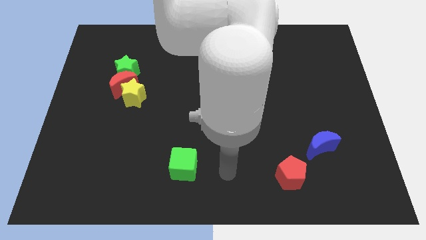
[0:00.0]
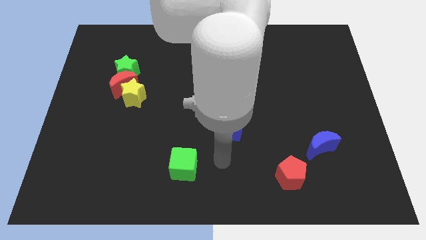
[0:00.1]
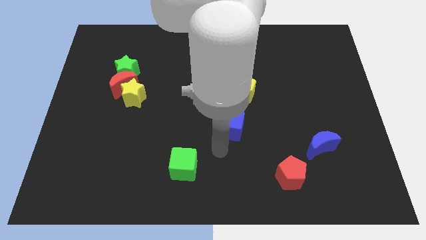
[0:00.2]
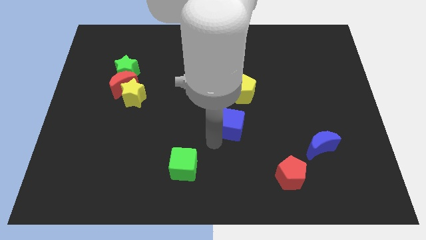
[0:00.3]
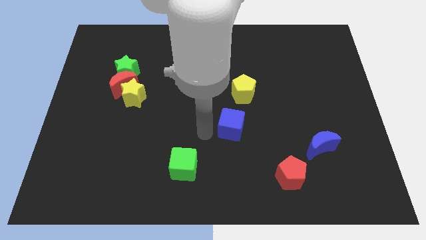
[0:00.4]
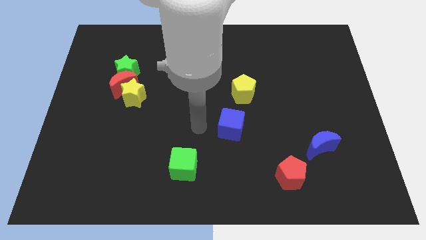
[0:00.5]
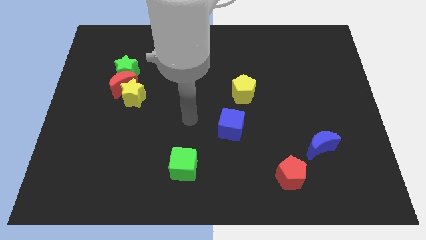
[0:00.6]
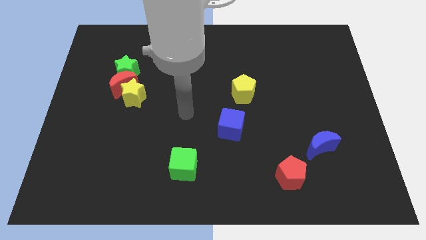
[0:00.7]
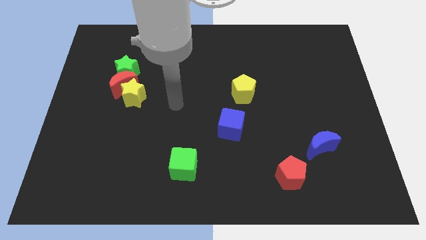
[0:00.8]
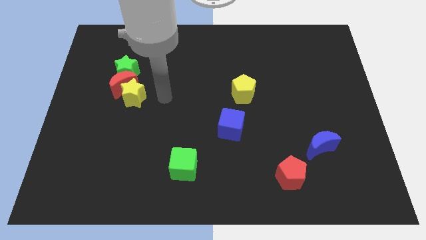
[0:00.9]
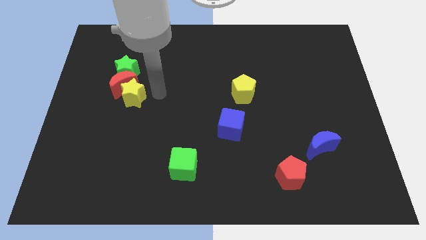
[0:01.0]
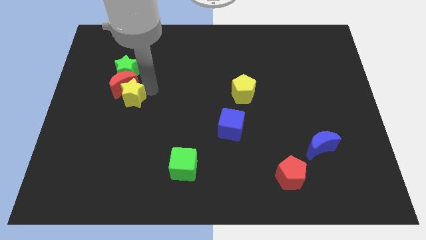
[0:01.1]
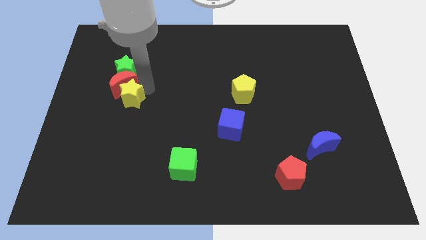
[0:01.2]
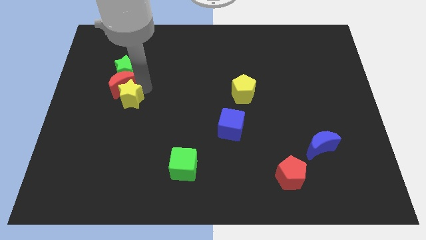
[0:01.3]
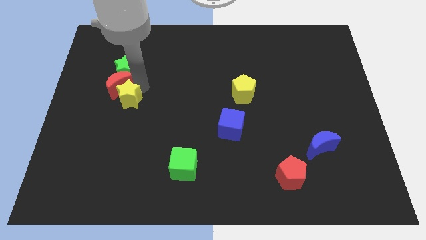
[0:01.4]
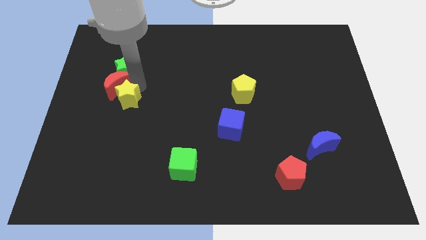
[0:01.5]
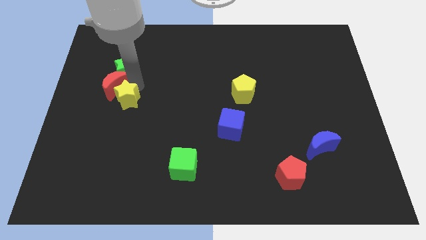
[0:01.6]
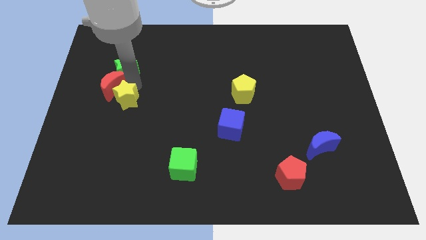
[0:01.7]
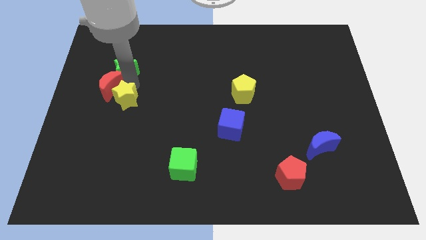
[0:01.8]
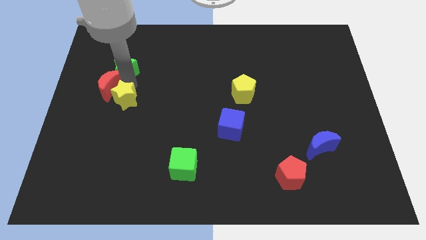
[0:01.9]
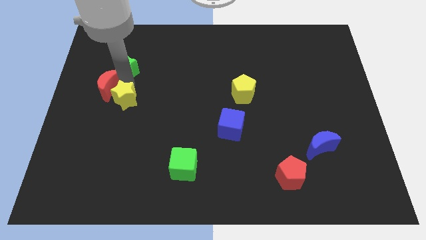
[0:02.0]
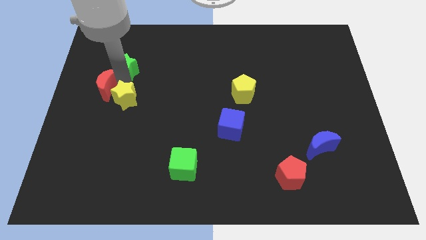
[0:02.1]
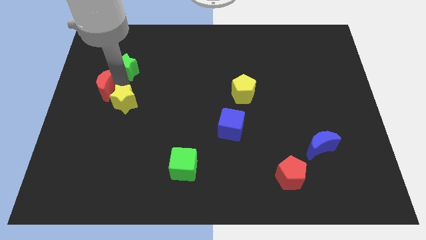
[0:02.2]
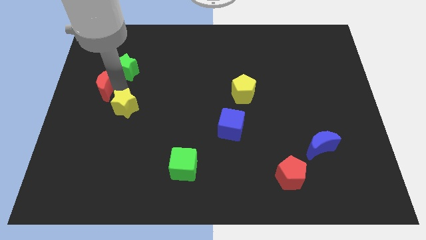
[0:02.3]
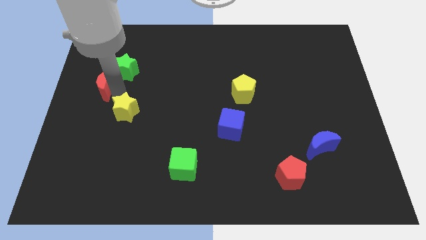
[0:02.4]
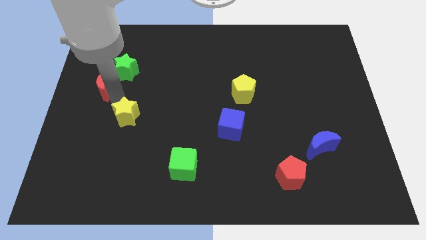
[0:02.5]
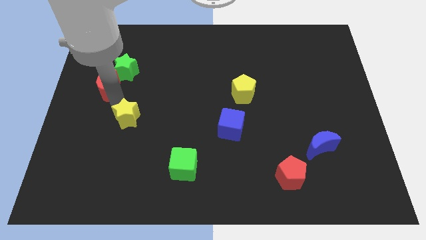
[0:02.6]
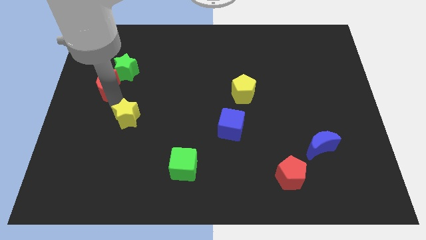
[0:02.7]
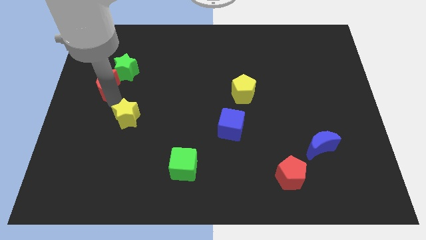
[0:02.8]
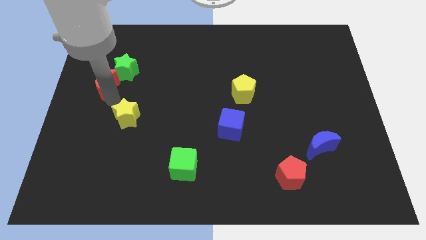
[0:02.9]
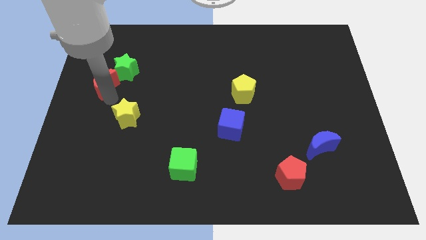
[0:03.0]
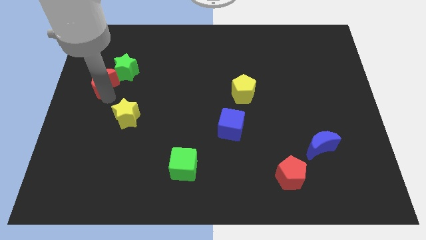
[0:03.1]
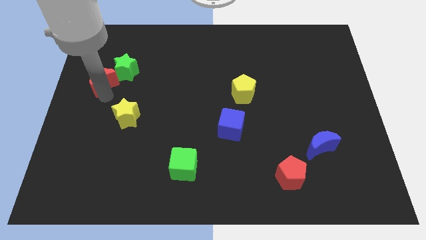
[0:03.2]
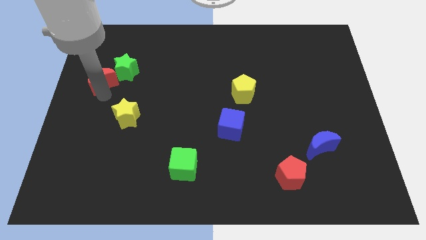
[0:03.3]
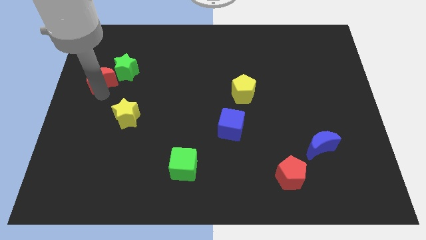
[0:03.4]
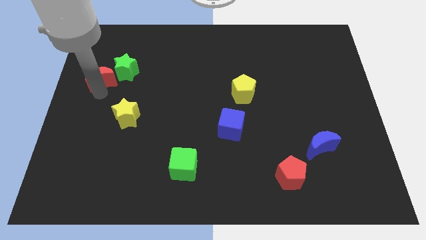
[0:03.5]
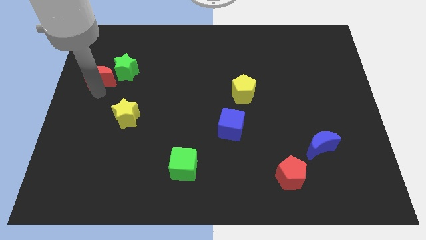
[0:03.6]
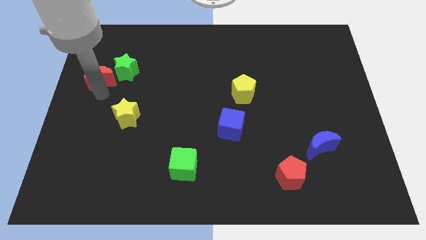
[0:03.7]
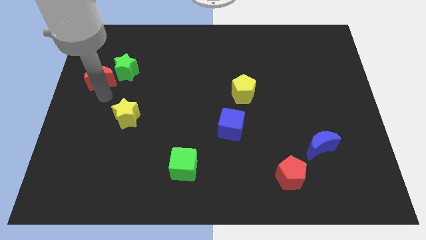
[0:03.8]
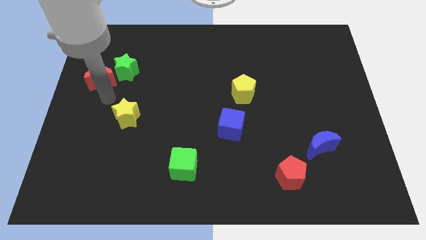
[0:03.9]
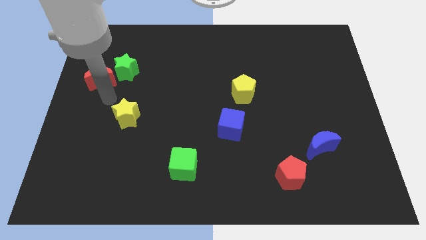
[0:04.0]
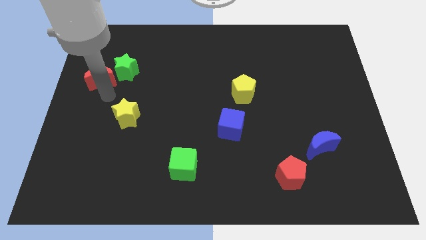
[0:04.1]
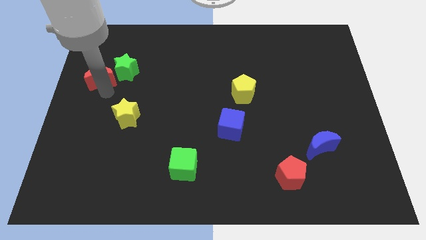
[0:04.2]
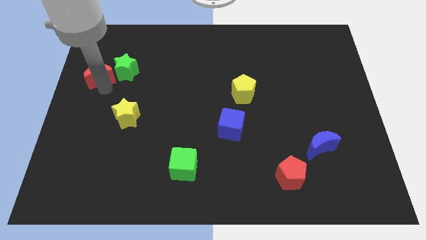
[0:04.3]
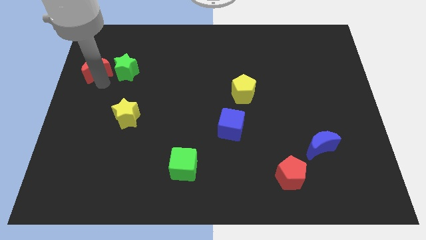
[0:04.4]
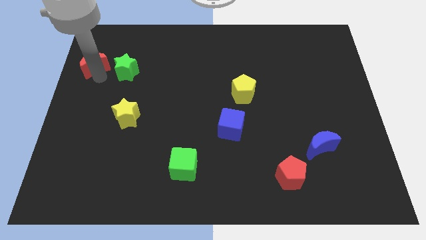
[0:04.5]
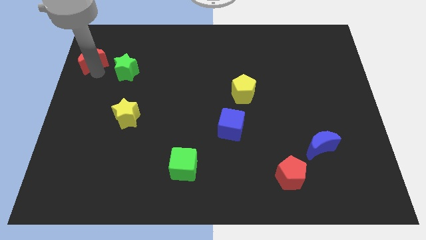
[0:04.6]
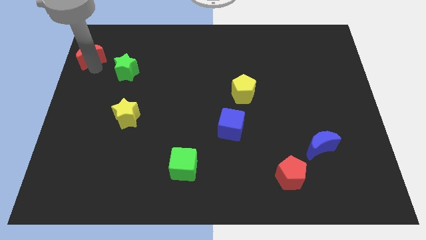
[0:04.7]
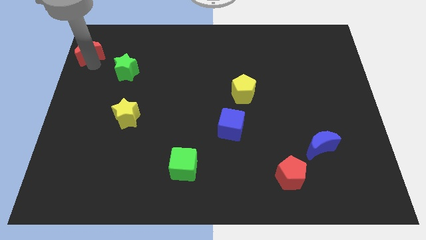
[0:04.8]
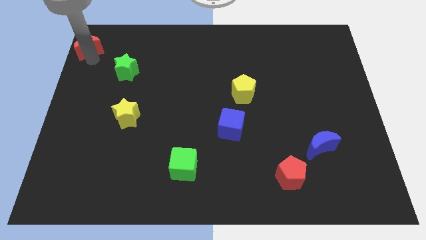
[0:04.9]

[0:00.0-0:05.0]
push the red moon to the top left corner

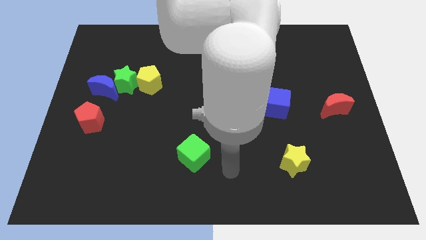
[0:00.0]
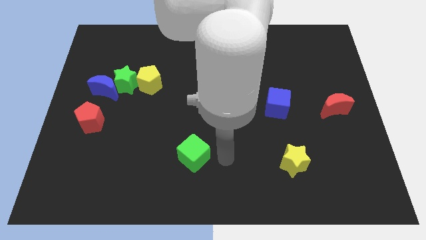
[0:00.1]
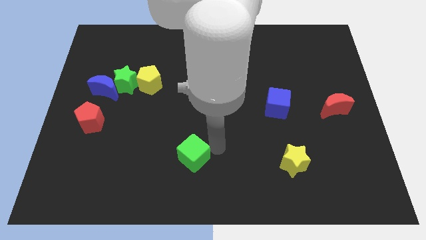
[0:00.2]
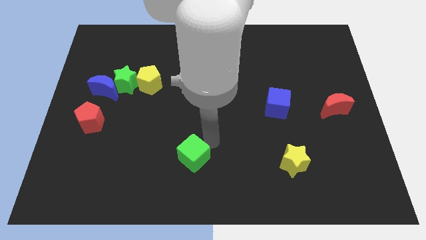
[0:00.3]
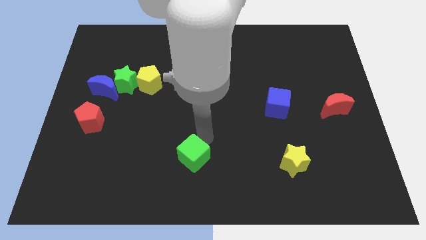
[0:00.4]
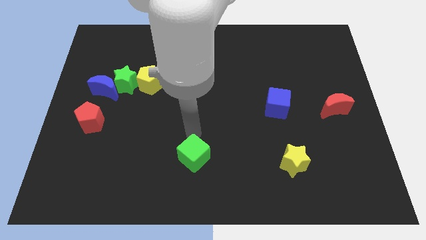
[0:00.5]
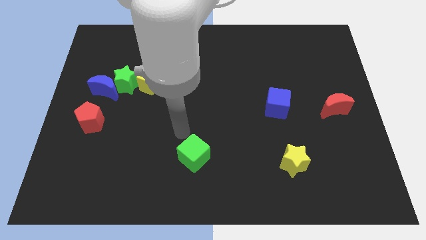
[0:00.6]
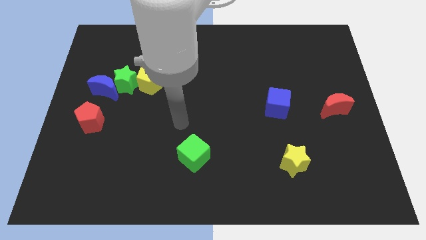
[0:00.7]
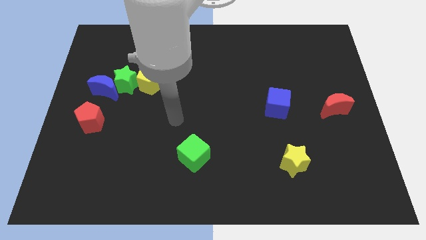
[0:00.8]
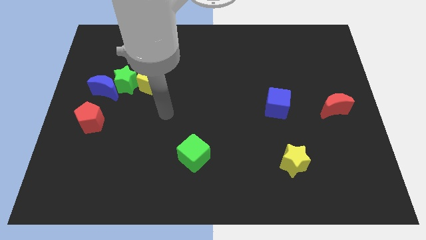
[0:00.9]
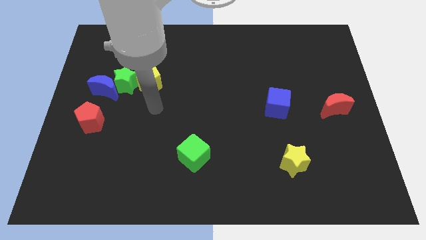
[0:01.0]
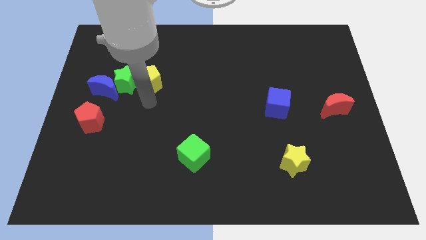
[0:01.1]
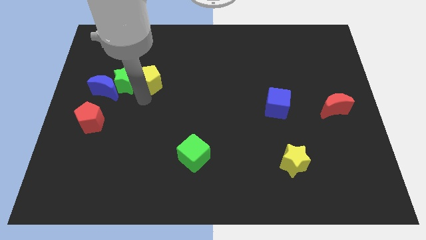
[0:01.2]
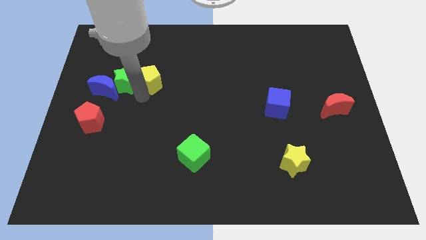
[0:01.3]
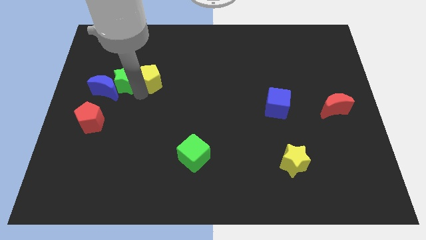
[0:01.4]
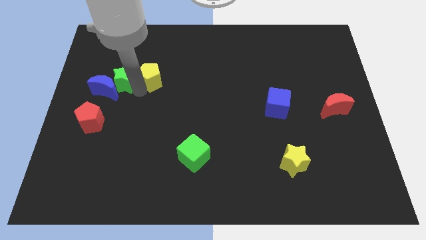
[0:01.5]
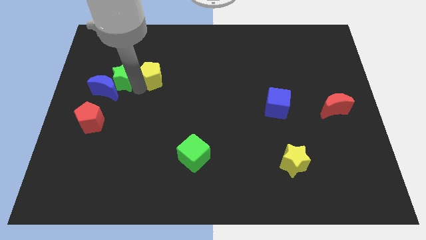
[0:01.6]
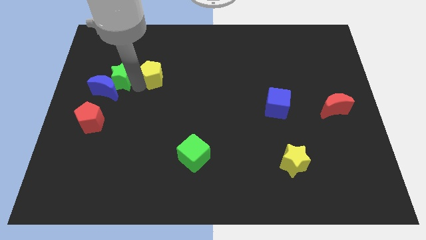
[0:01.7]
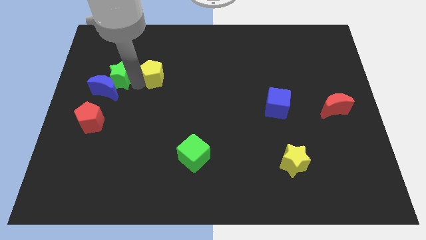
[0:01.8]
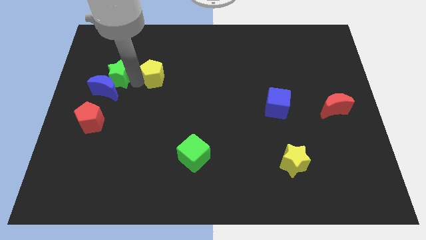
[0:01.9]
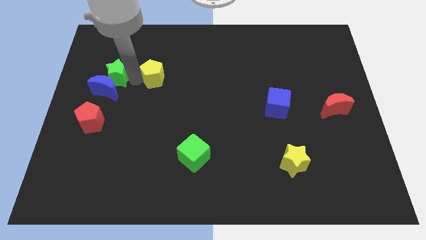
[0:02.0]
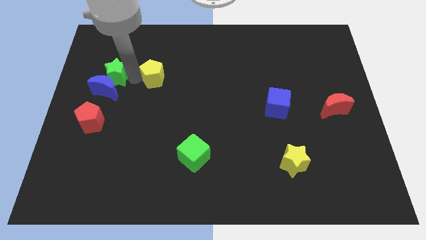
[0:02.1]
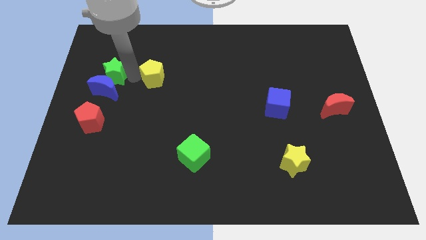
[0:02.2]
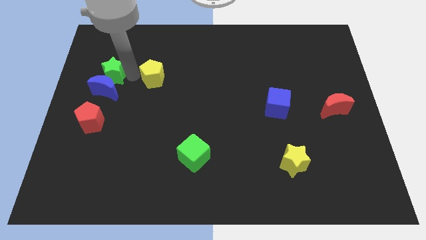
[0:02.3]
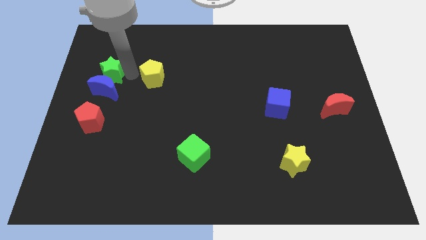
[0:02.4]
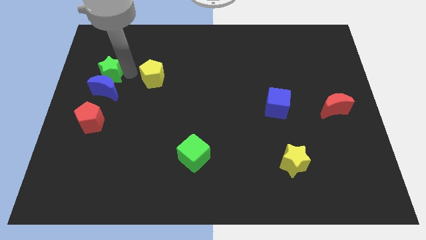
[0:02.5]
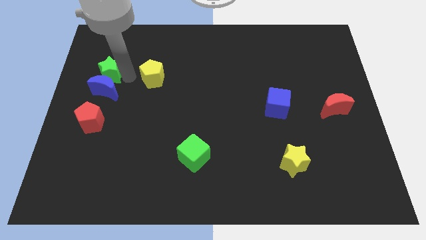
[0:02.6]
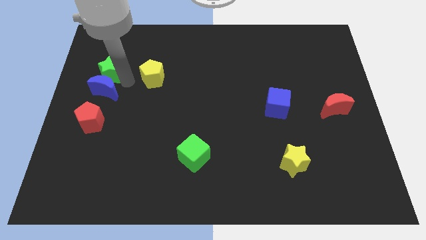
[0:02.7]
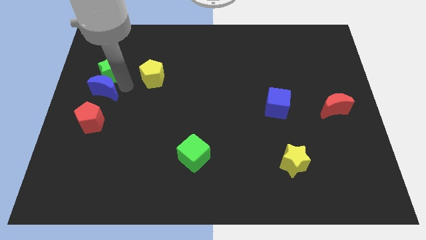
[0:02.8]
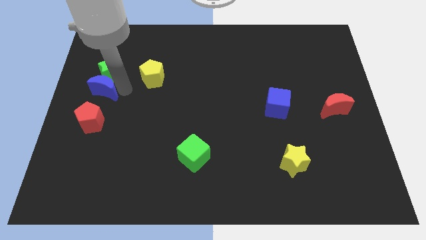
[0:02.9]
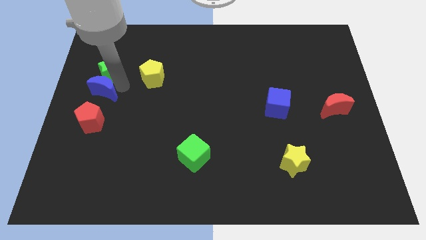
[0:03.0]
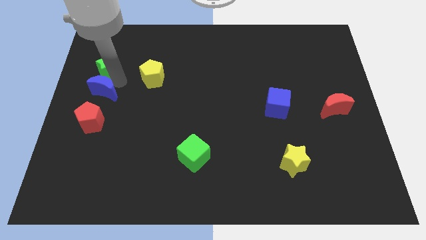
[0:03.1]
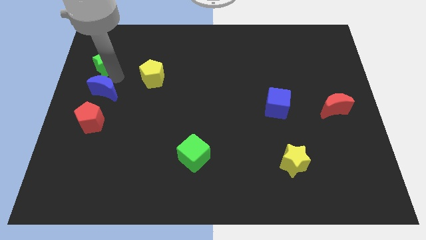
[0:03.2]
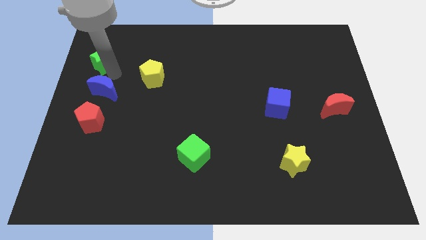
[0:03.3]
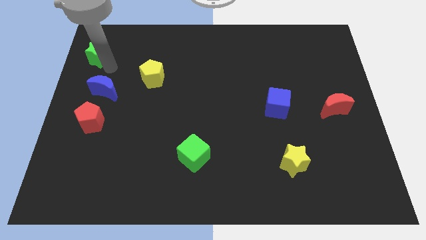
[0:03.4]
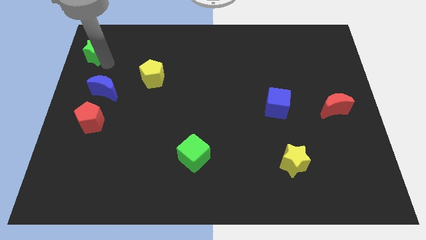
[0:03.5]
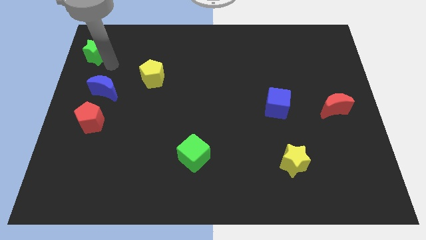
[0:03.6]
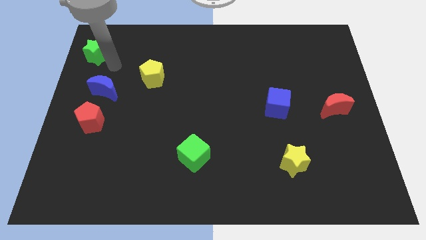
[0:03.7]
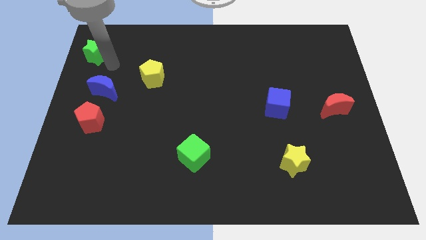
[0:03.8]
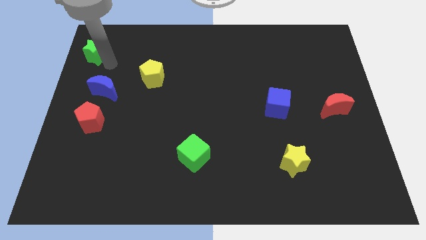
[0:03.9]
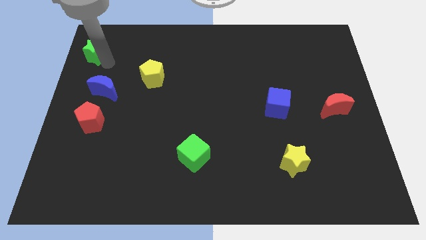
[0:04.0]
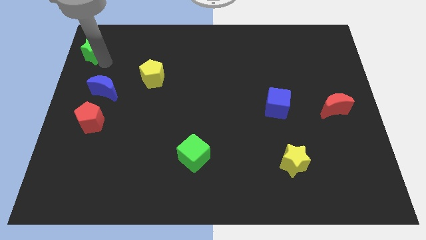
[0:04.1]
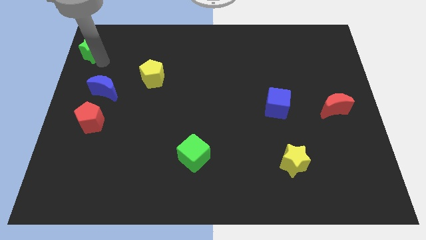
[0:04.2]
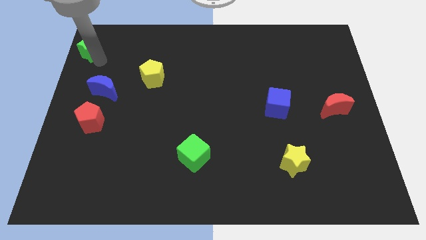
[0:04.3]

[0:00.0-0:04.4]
move the green star to the top left corner
